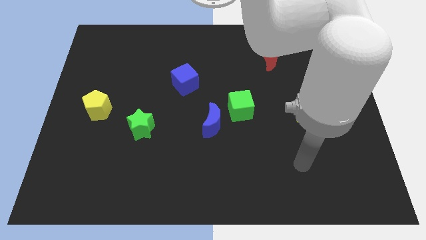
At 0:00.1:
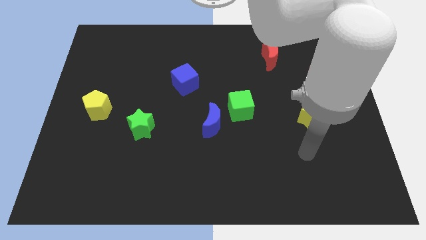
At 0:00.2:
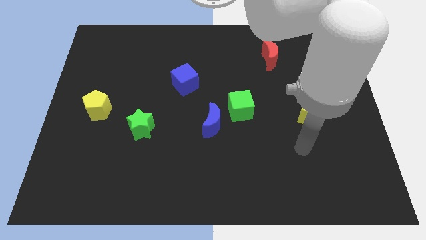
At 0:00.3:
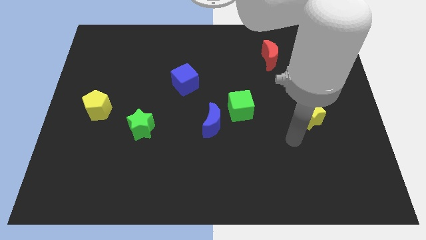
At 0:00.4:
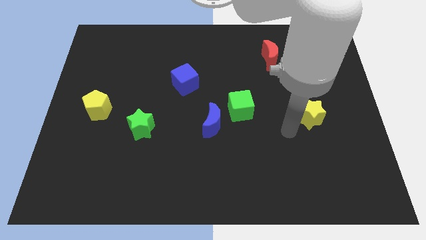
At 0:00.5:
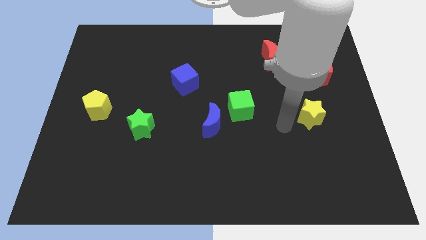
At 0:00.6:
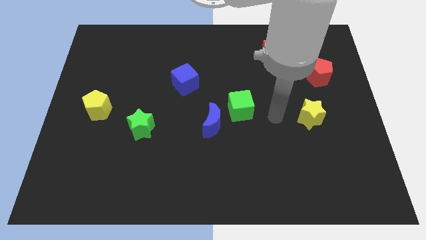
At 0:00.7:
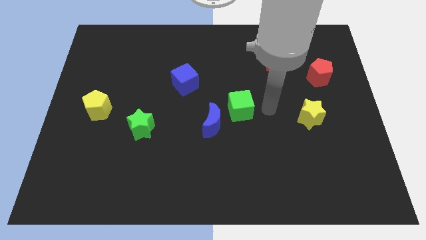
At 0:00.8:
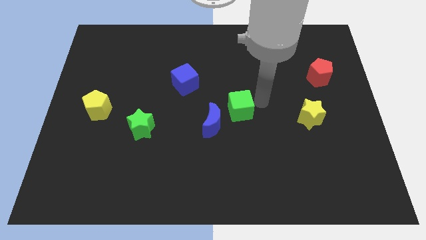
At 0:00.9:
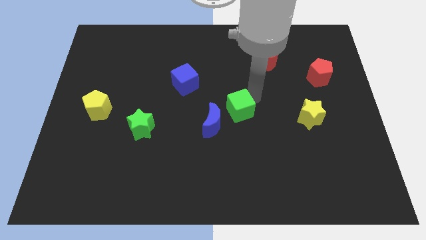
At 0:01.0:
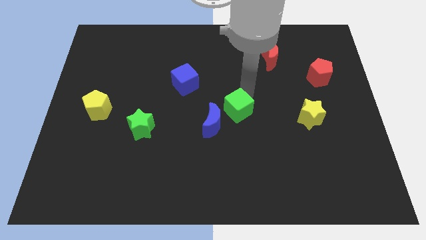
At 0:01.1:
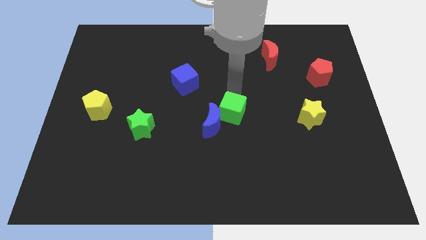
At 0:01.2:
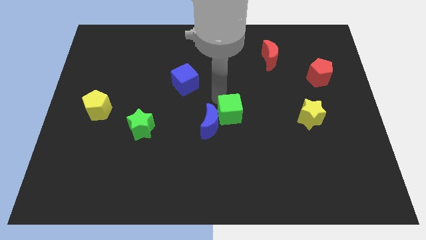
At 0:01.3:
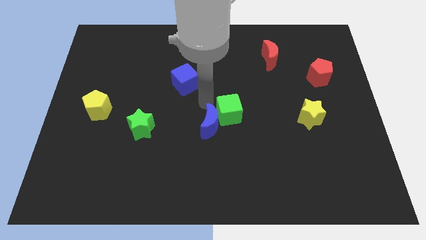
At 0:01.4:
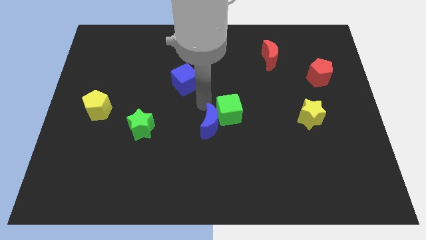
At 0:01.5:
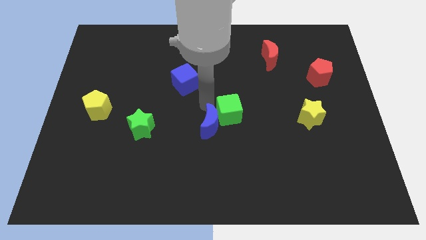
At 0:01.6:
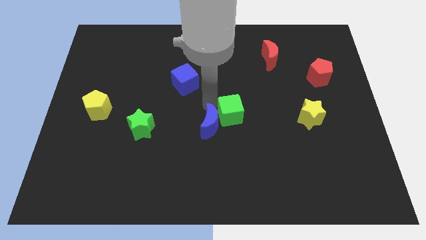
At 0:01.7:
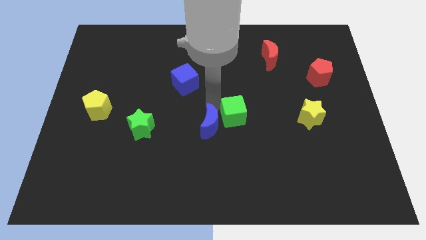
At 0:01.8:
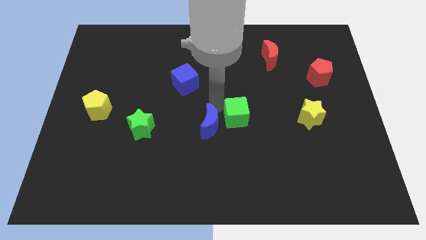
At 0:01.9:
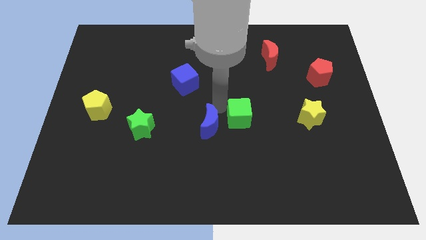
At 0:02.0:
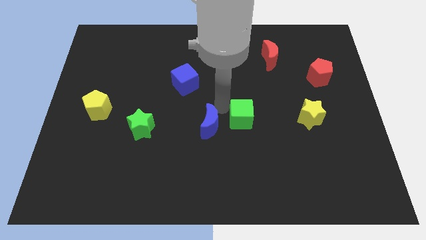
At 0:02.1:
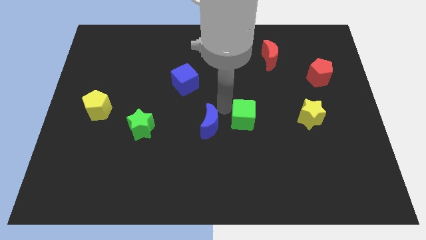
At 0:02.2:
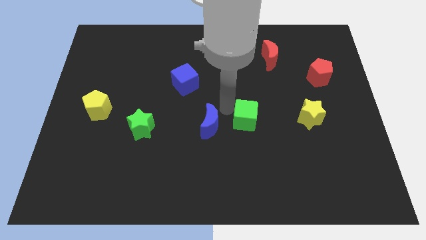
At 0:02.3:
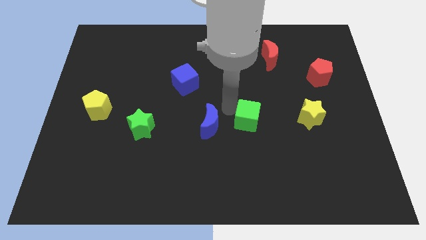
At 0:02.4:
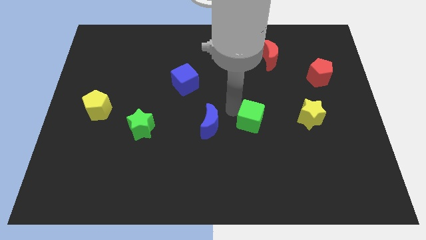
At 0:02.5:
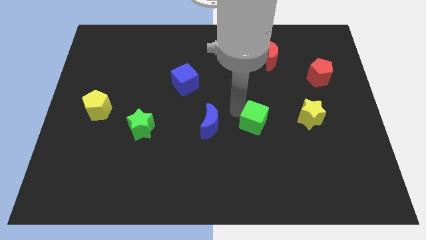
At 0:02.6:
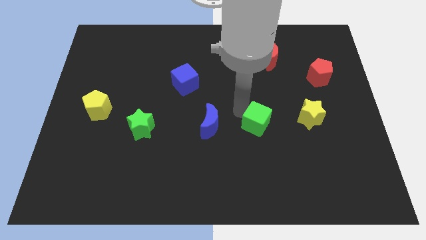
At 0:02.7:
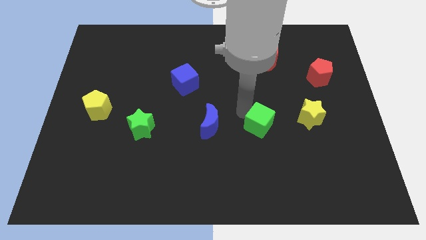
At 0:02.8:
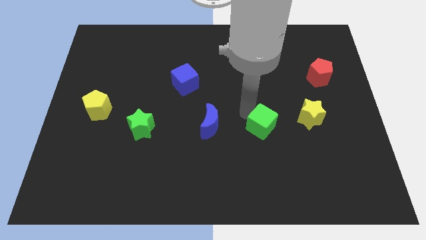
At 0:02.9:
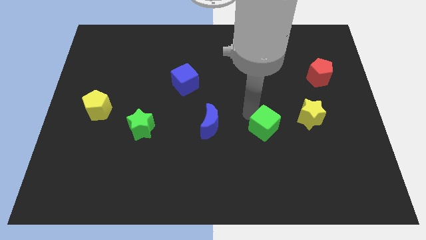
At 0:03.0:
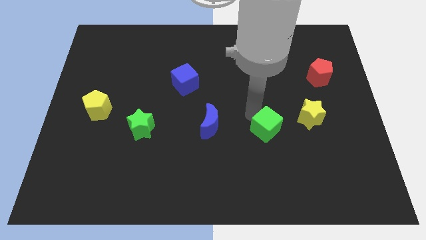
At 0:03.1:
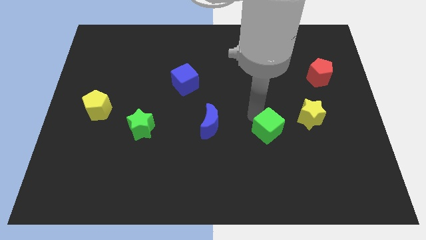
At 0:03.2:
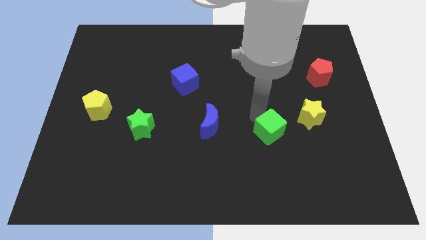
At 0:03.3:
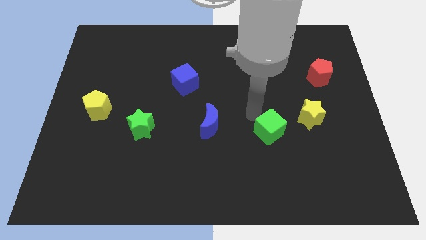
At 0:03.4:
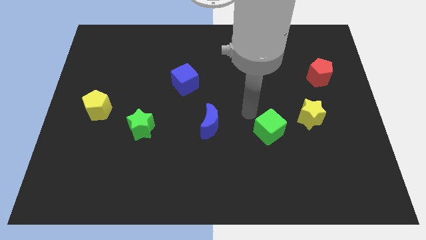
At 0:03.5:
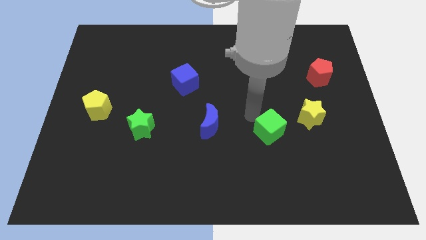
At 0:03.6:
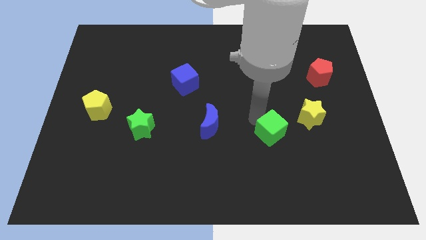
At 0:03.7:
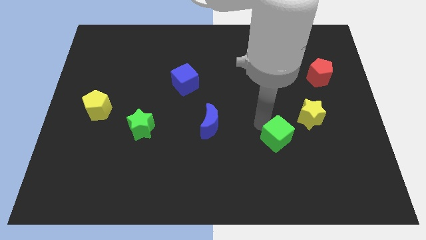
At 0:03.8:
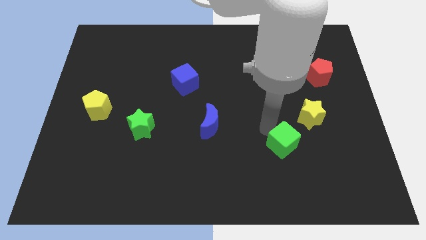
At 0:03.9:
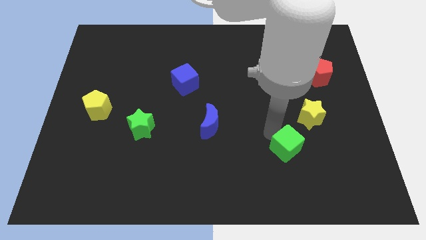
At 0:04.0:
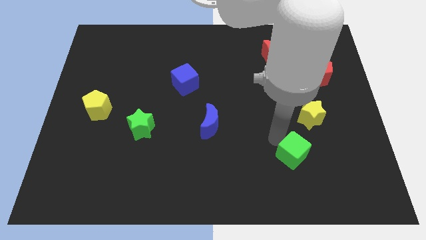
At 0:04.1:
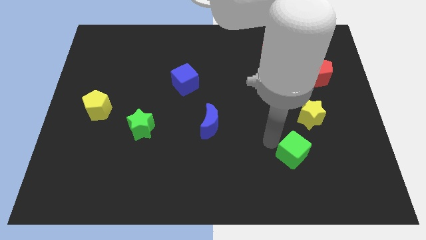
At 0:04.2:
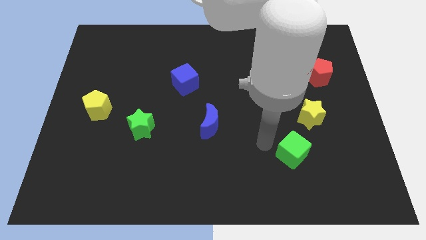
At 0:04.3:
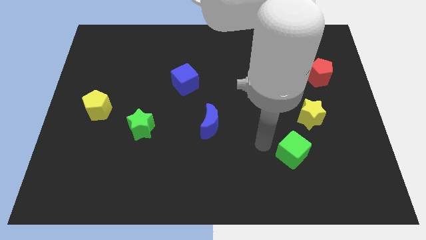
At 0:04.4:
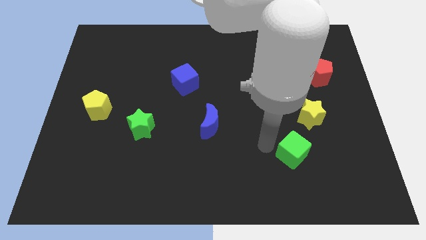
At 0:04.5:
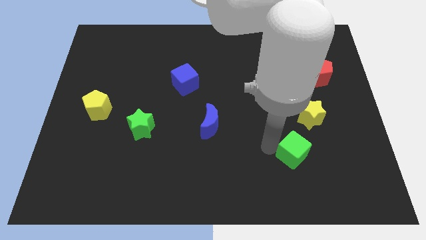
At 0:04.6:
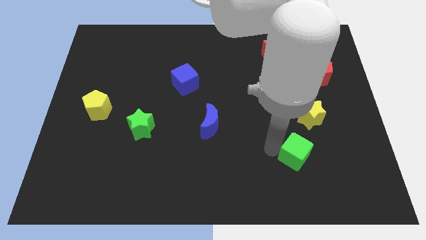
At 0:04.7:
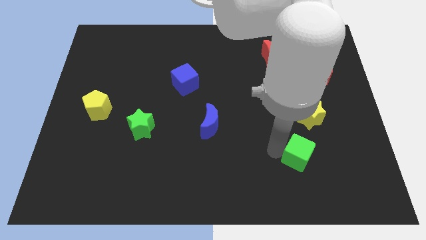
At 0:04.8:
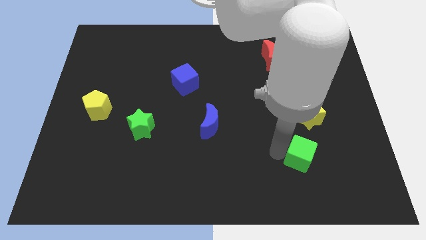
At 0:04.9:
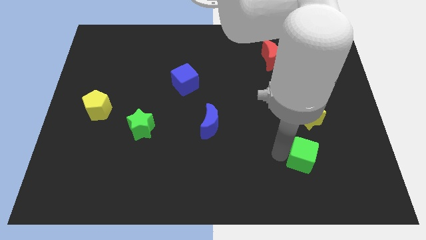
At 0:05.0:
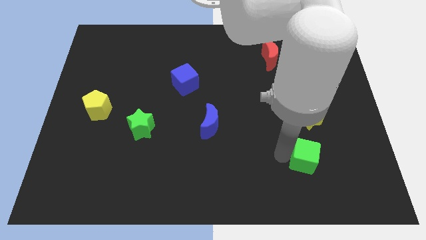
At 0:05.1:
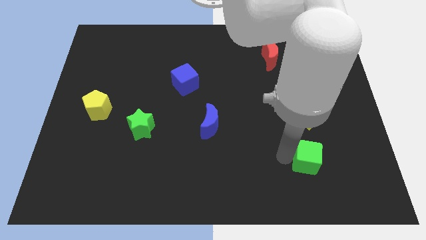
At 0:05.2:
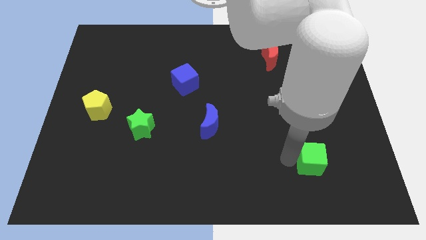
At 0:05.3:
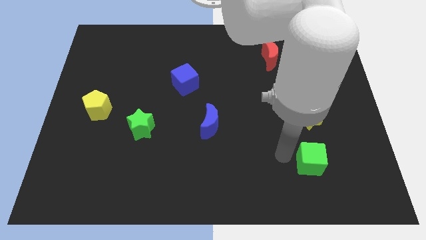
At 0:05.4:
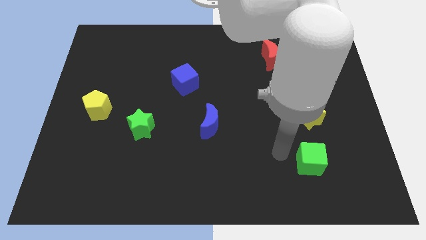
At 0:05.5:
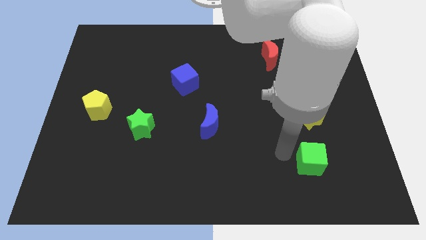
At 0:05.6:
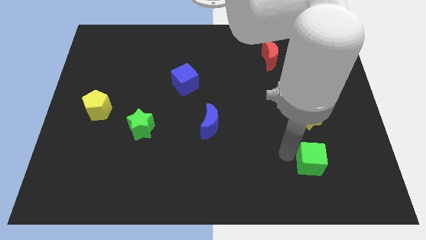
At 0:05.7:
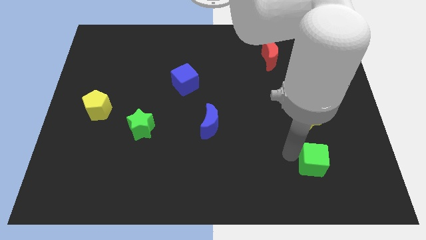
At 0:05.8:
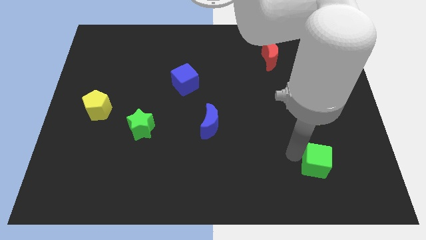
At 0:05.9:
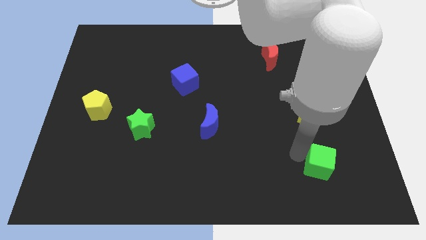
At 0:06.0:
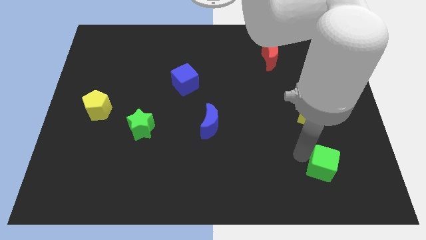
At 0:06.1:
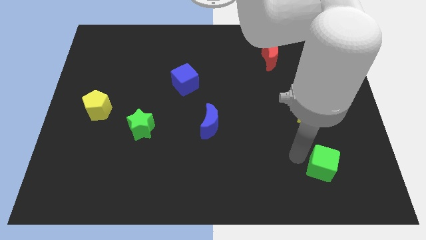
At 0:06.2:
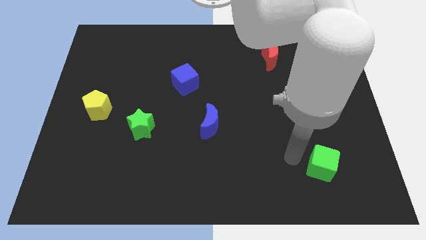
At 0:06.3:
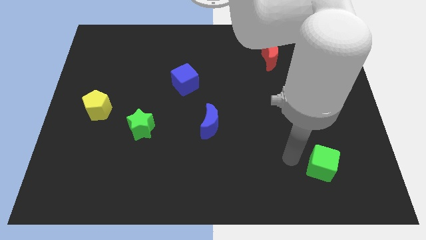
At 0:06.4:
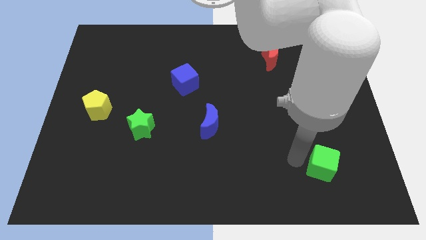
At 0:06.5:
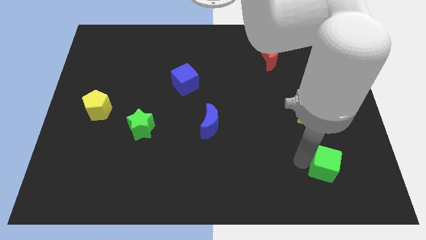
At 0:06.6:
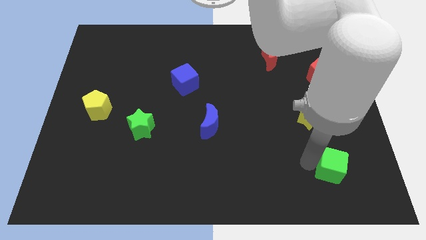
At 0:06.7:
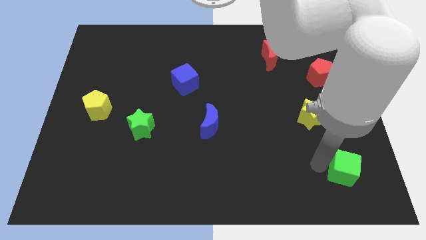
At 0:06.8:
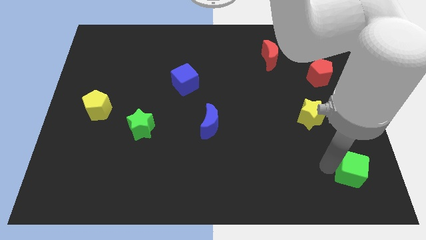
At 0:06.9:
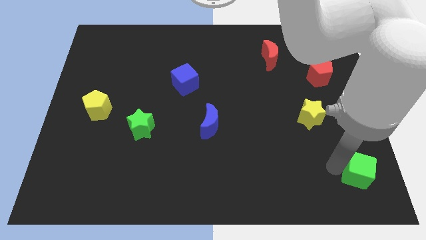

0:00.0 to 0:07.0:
put the green cube to the lower right corner

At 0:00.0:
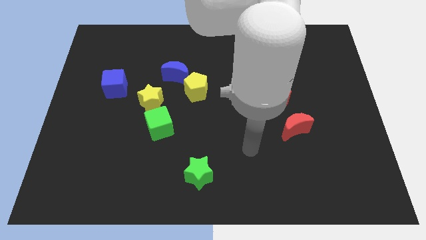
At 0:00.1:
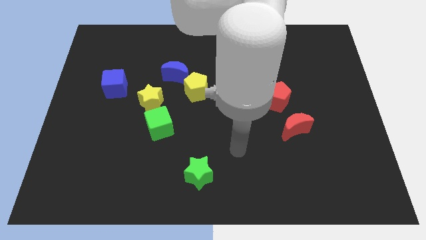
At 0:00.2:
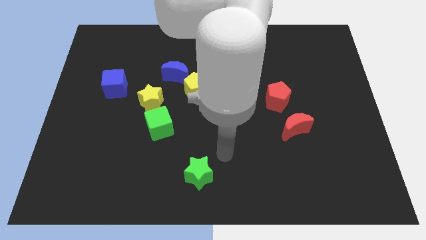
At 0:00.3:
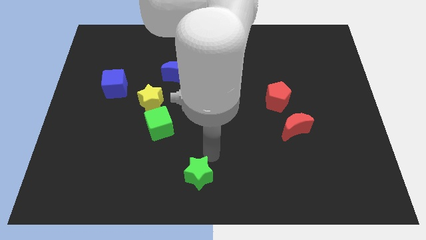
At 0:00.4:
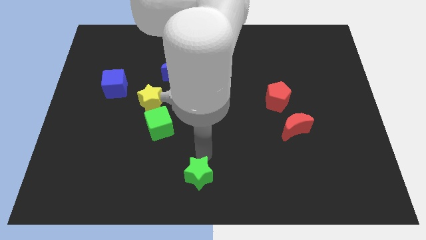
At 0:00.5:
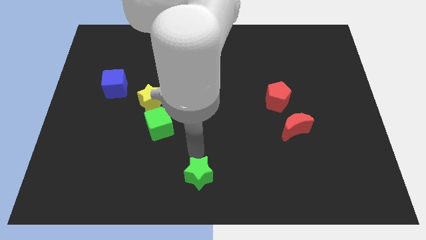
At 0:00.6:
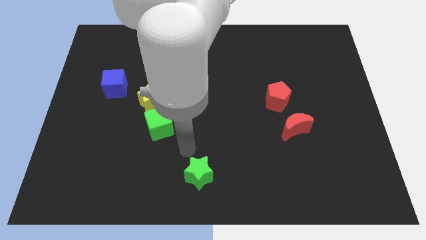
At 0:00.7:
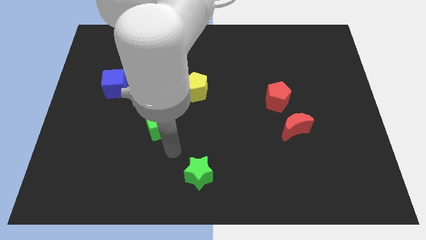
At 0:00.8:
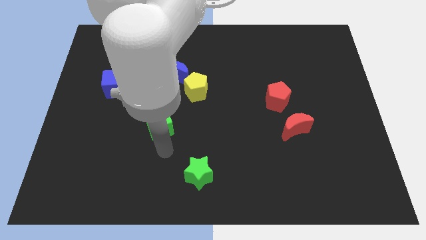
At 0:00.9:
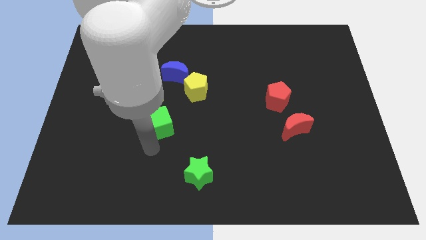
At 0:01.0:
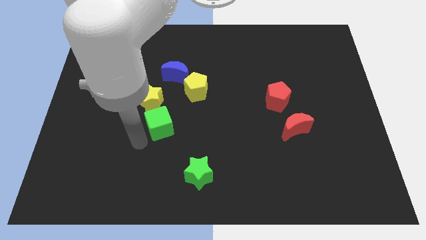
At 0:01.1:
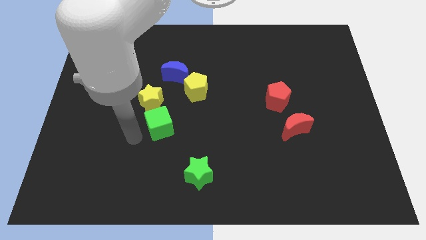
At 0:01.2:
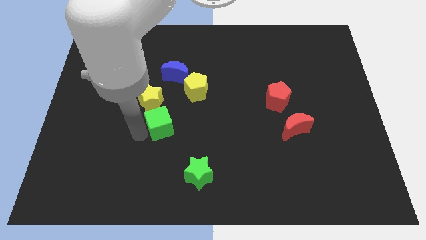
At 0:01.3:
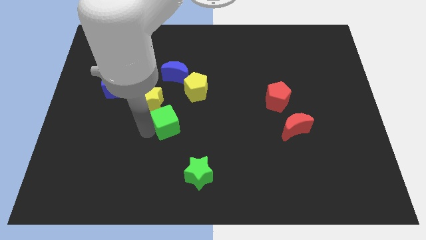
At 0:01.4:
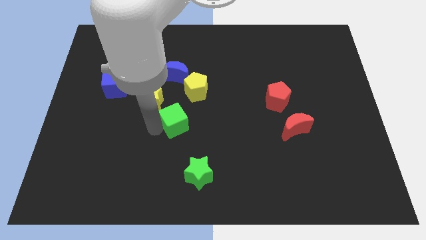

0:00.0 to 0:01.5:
move the green cube to the middle
